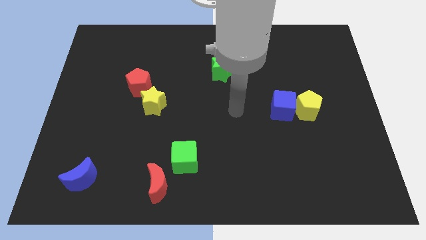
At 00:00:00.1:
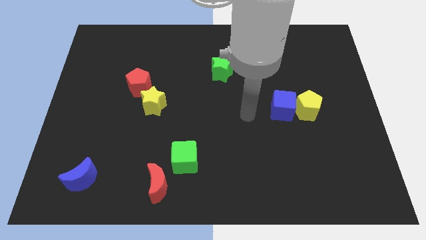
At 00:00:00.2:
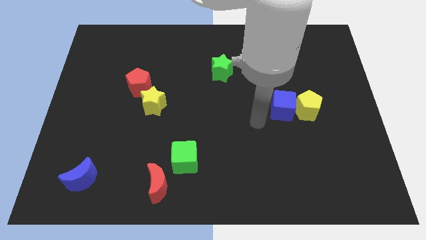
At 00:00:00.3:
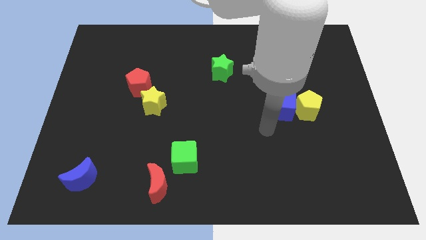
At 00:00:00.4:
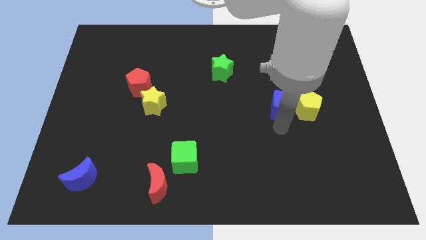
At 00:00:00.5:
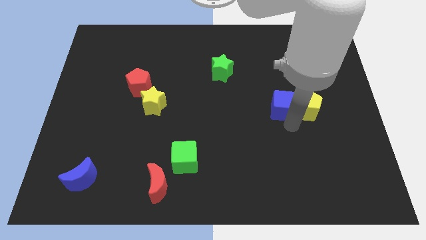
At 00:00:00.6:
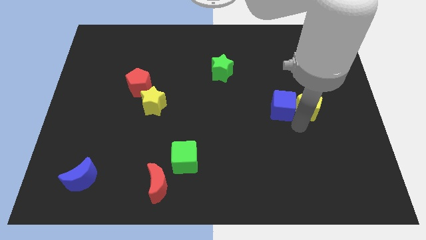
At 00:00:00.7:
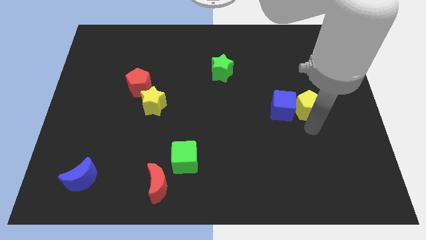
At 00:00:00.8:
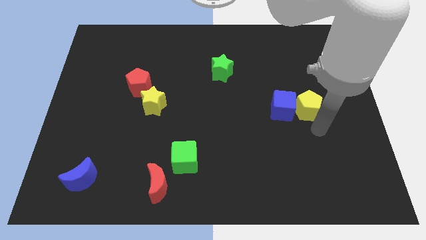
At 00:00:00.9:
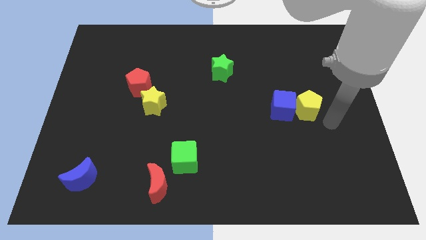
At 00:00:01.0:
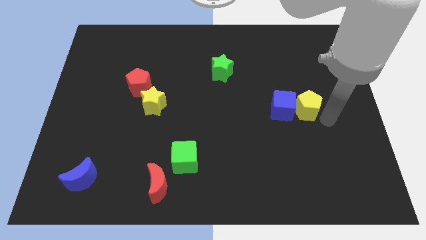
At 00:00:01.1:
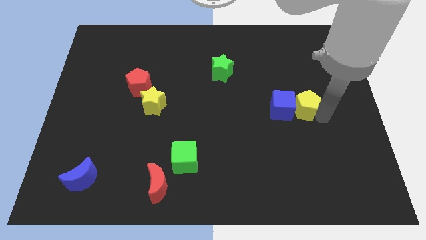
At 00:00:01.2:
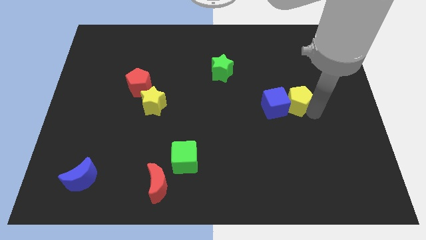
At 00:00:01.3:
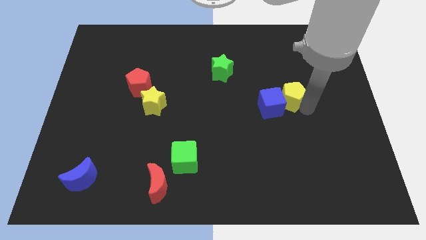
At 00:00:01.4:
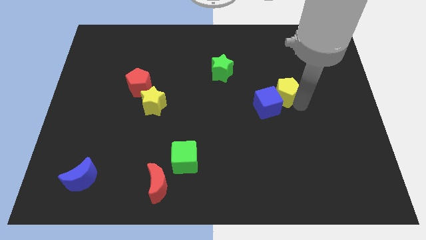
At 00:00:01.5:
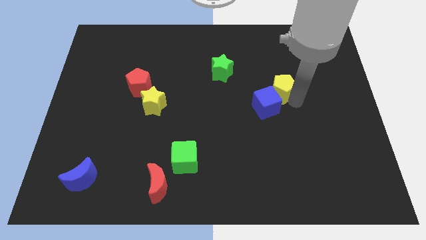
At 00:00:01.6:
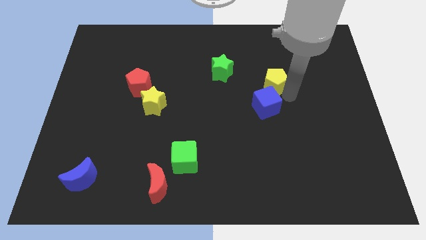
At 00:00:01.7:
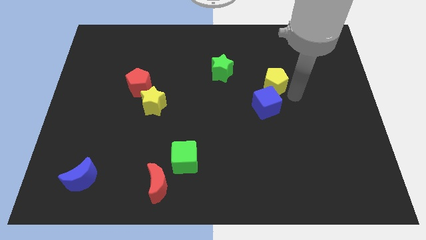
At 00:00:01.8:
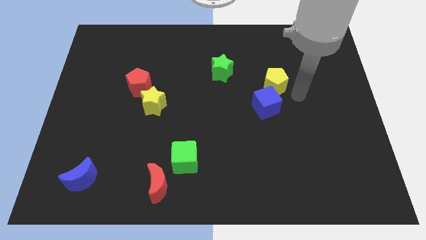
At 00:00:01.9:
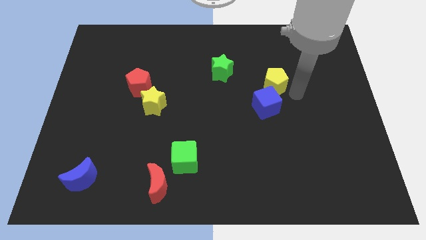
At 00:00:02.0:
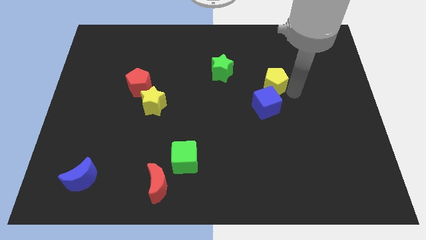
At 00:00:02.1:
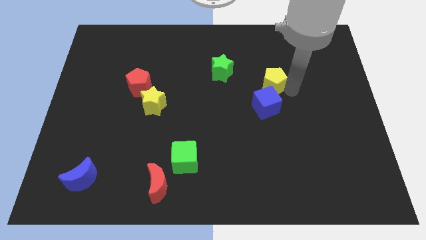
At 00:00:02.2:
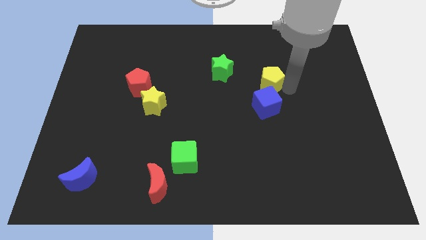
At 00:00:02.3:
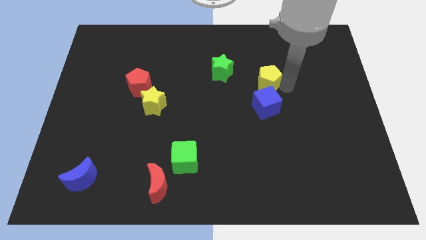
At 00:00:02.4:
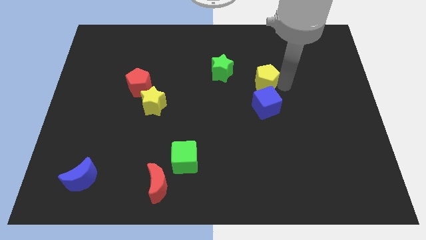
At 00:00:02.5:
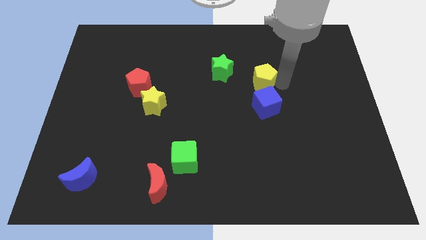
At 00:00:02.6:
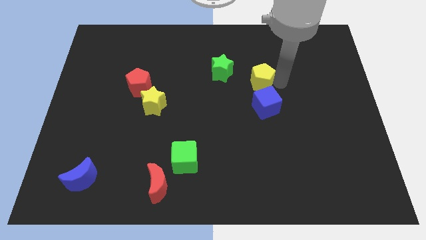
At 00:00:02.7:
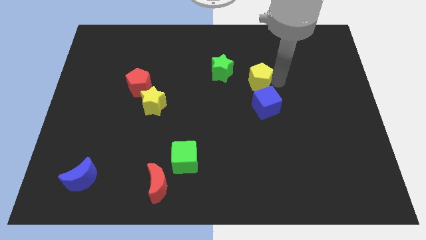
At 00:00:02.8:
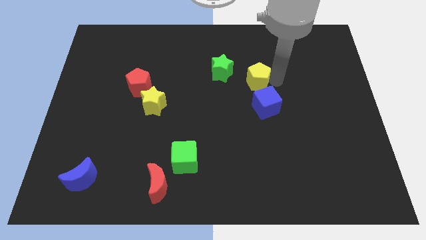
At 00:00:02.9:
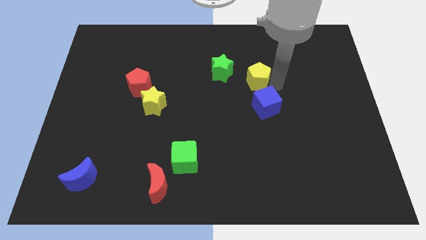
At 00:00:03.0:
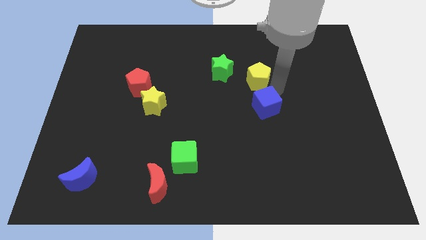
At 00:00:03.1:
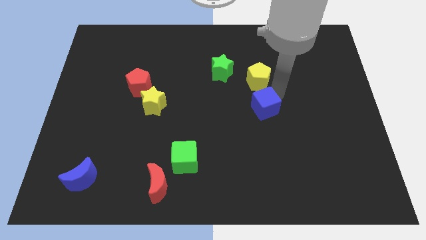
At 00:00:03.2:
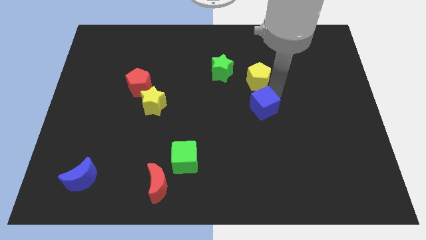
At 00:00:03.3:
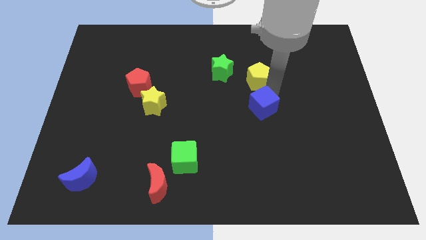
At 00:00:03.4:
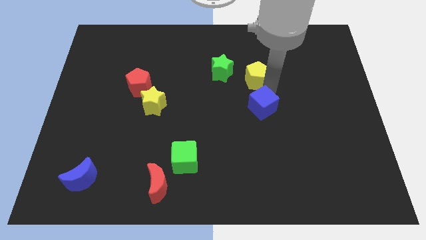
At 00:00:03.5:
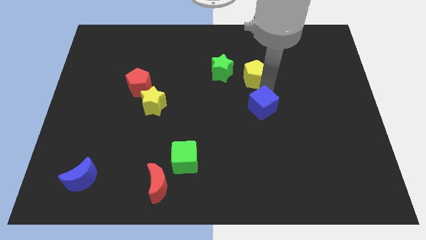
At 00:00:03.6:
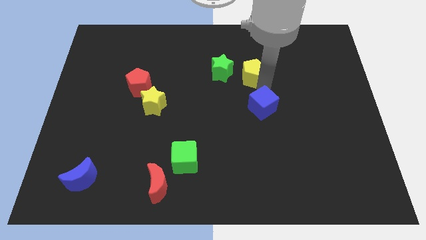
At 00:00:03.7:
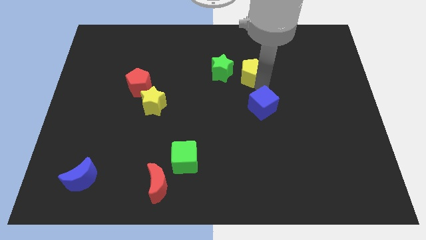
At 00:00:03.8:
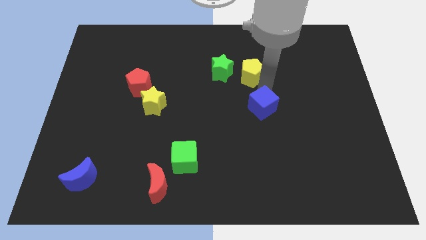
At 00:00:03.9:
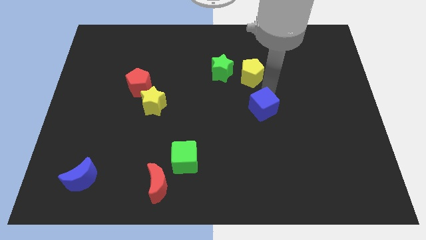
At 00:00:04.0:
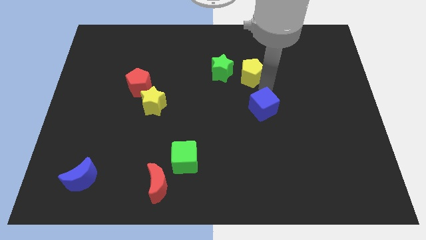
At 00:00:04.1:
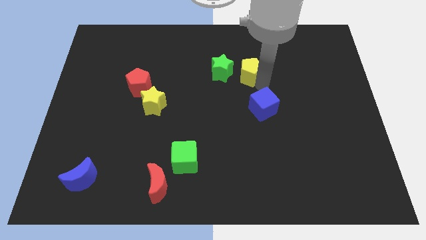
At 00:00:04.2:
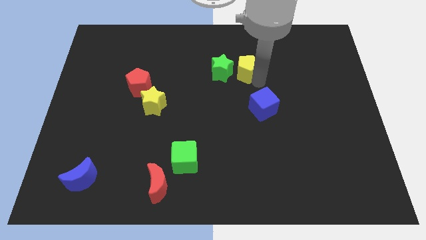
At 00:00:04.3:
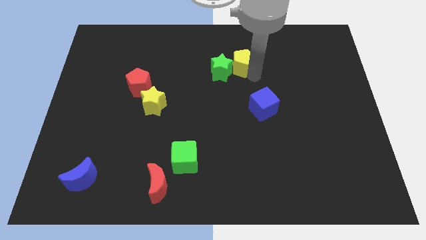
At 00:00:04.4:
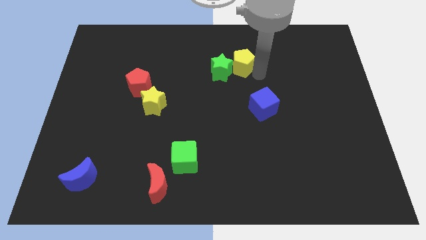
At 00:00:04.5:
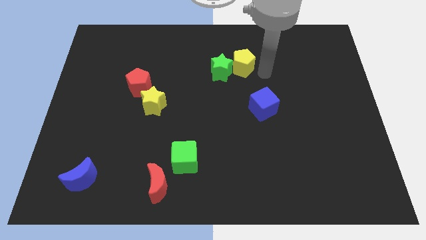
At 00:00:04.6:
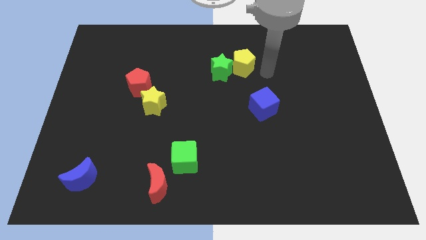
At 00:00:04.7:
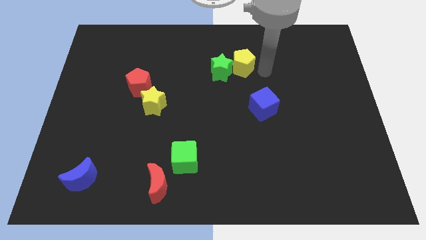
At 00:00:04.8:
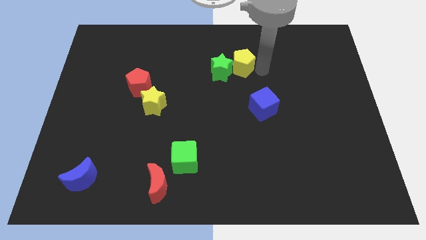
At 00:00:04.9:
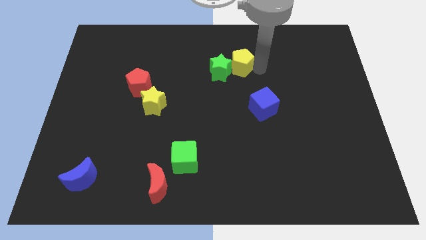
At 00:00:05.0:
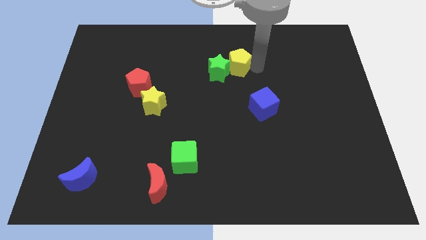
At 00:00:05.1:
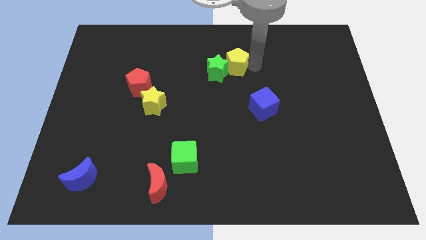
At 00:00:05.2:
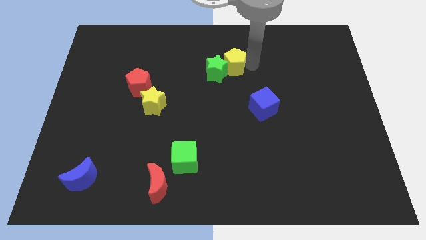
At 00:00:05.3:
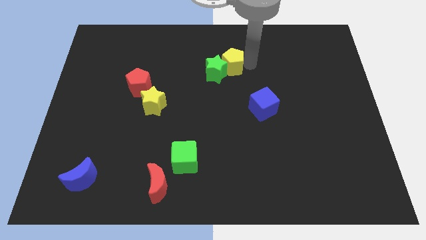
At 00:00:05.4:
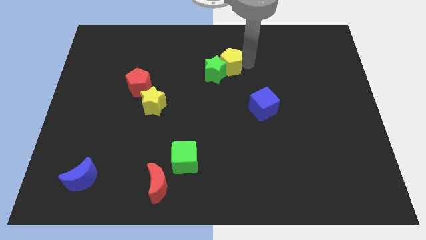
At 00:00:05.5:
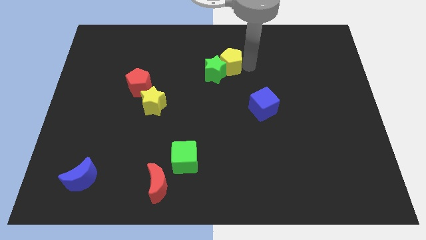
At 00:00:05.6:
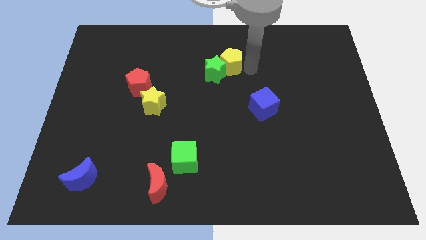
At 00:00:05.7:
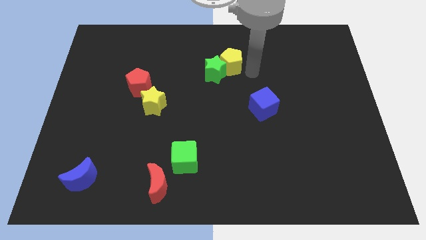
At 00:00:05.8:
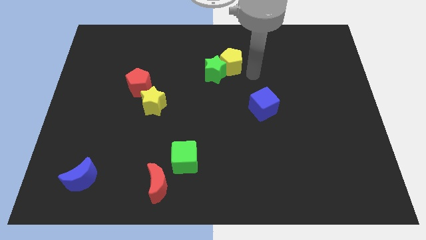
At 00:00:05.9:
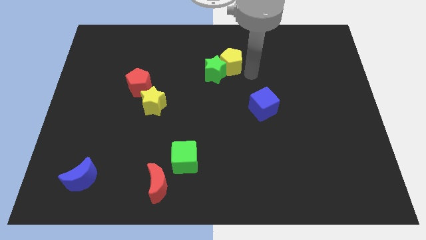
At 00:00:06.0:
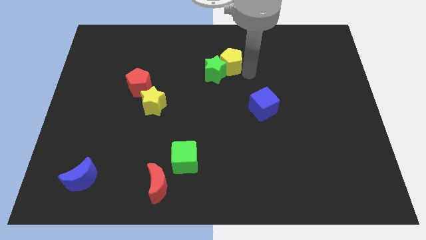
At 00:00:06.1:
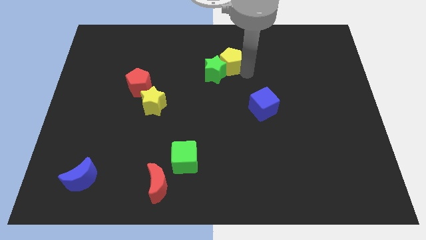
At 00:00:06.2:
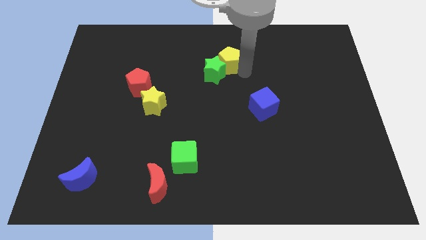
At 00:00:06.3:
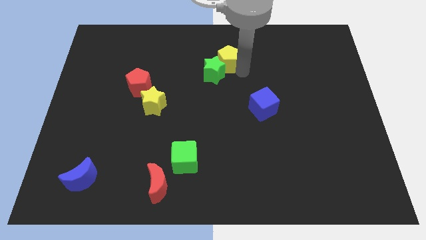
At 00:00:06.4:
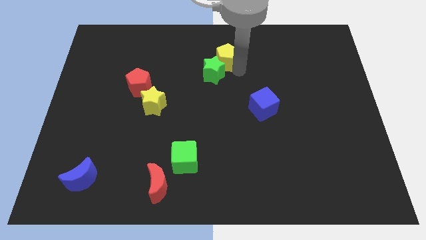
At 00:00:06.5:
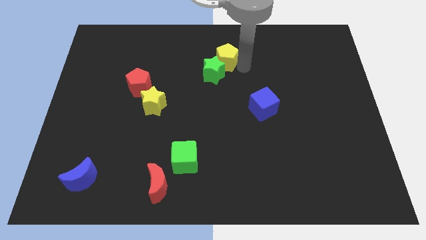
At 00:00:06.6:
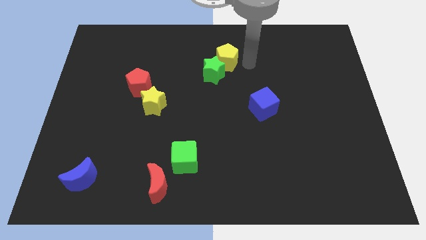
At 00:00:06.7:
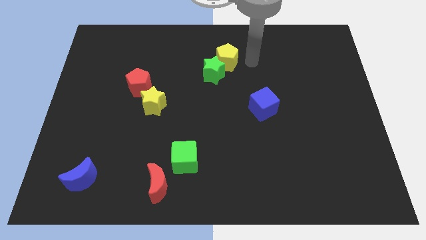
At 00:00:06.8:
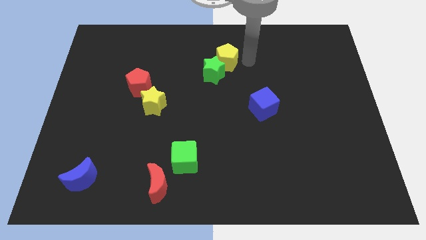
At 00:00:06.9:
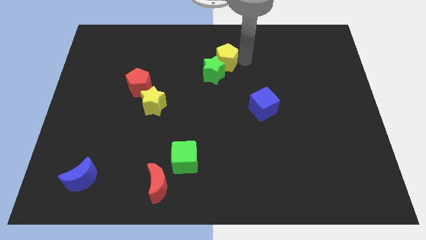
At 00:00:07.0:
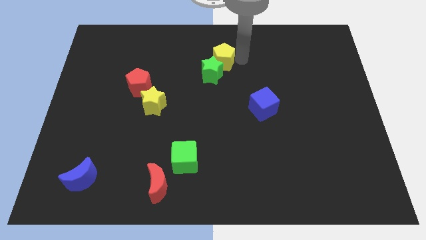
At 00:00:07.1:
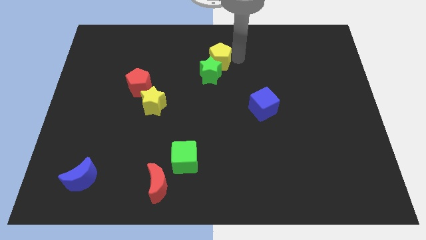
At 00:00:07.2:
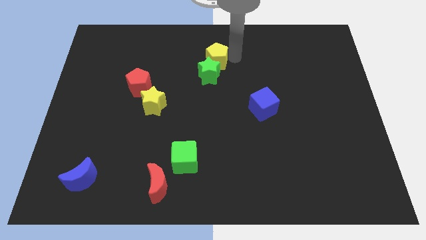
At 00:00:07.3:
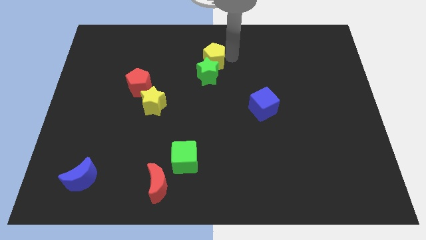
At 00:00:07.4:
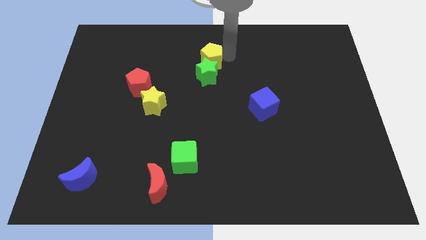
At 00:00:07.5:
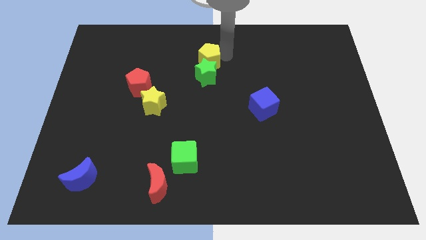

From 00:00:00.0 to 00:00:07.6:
push the yellow pentagon diagonally up and to the left of the green star
